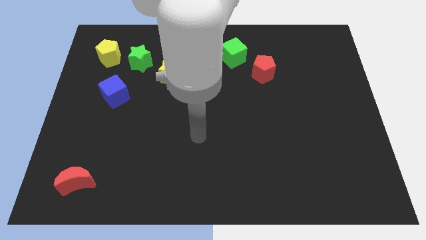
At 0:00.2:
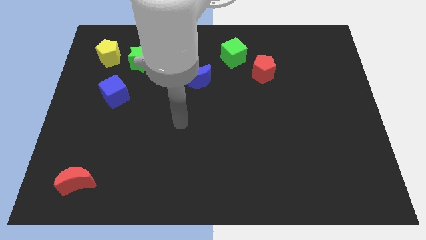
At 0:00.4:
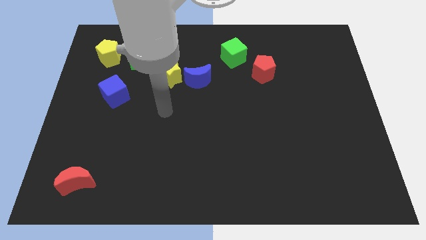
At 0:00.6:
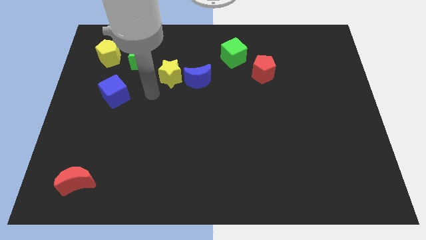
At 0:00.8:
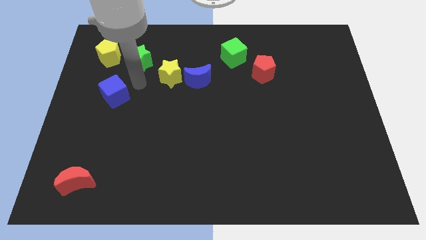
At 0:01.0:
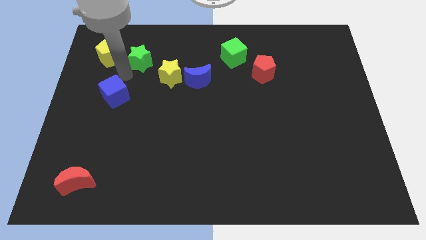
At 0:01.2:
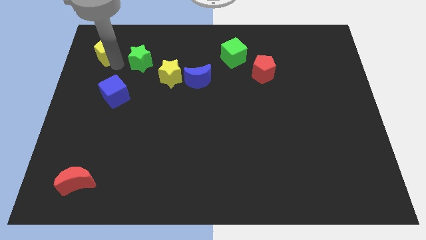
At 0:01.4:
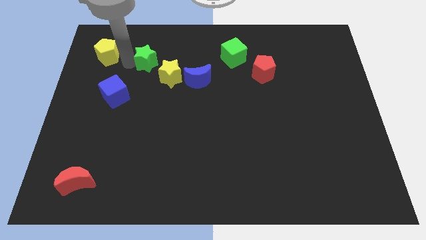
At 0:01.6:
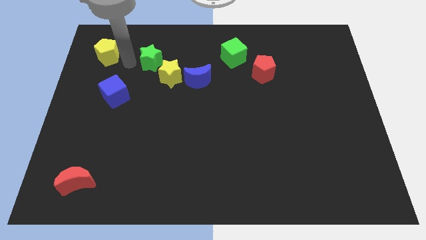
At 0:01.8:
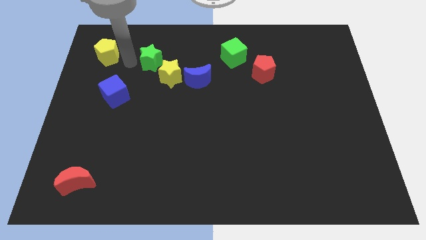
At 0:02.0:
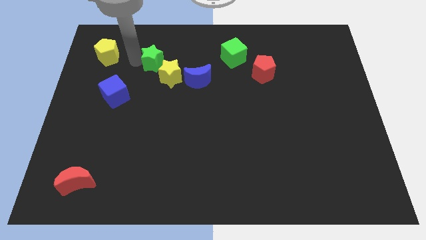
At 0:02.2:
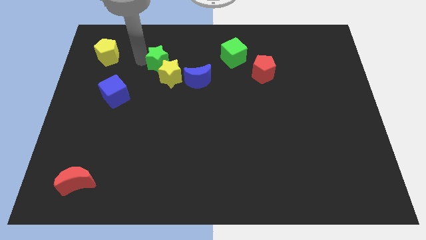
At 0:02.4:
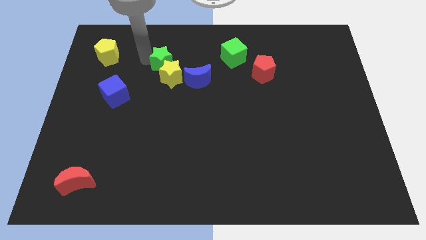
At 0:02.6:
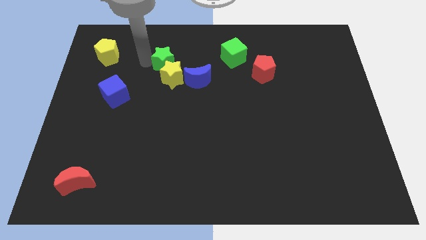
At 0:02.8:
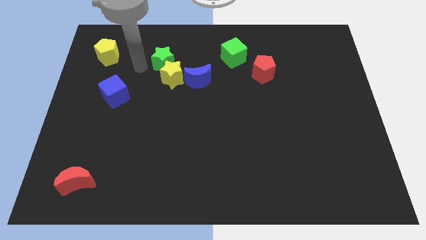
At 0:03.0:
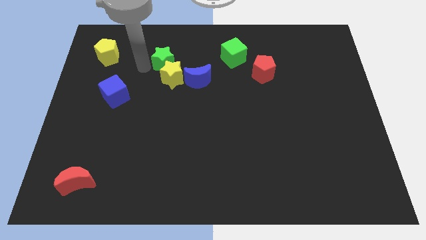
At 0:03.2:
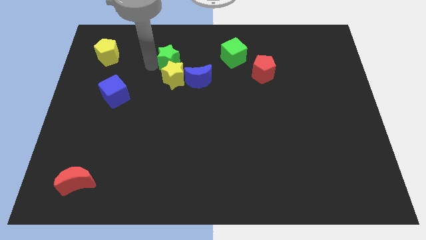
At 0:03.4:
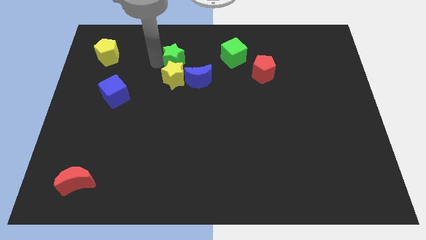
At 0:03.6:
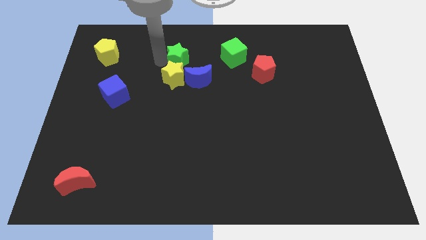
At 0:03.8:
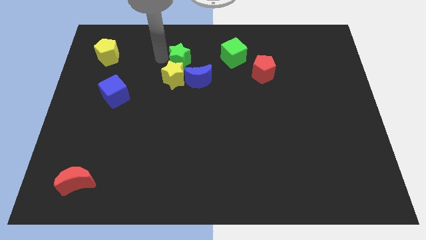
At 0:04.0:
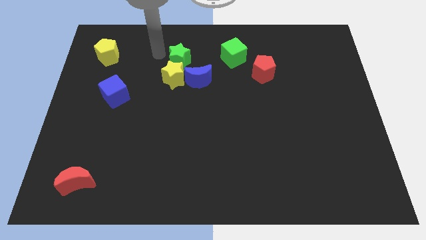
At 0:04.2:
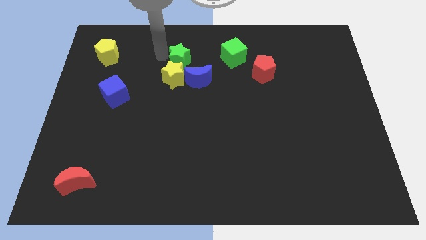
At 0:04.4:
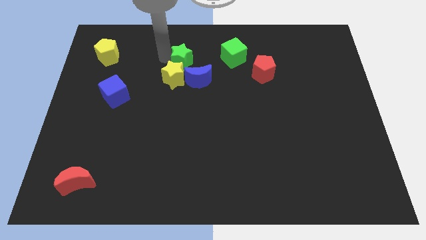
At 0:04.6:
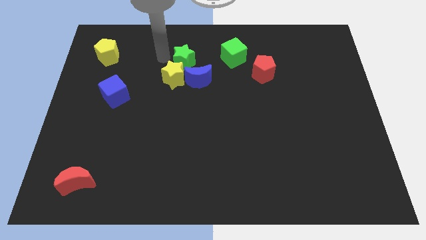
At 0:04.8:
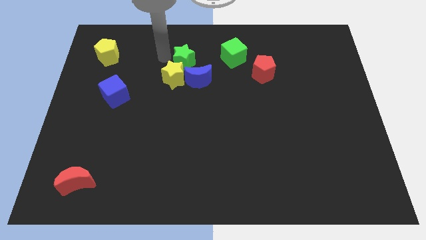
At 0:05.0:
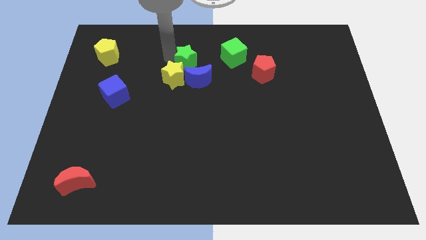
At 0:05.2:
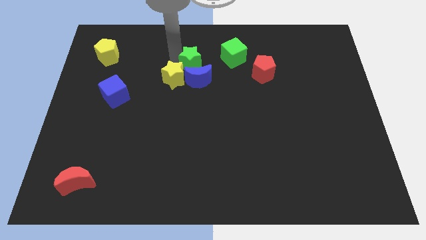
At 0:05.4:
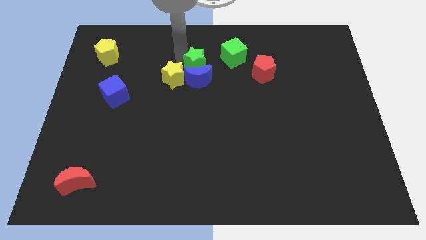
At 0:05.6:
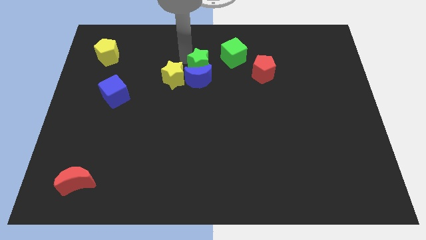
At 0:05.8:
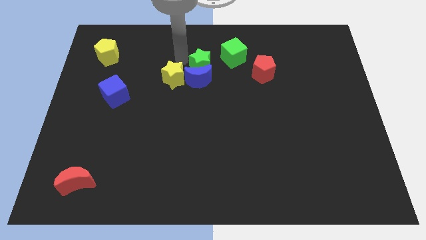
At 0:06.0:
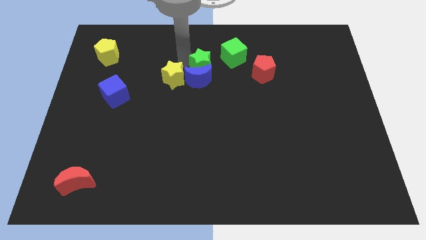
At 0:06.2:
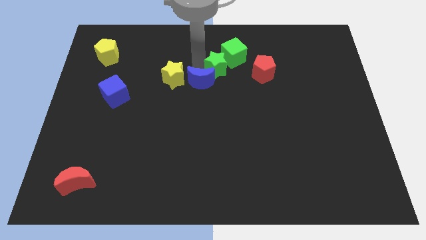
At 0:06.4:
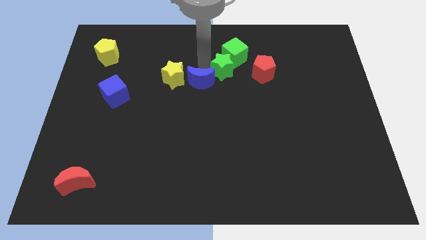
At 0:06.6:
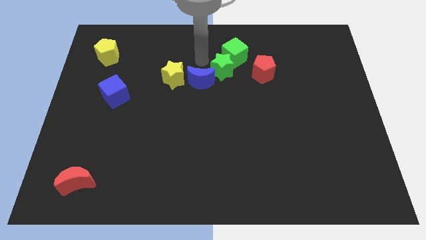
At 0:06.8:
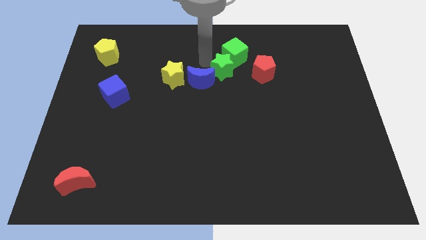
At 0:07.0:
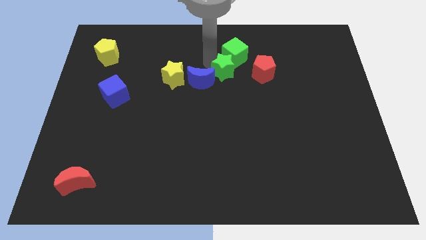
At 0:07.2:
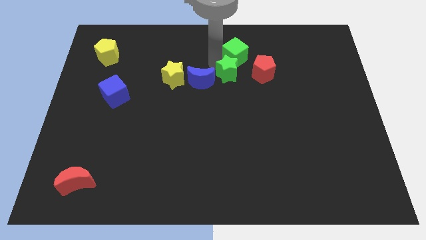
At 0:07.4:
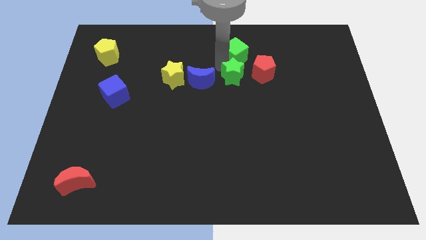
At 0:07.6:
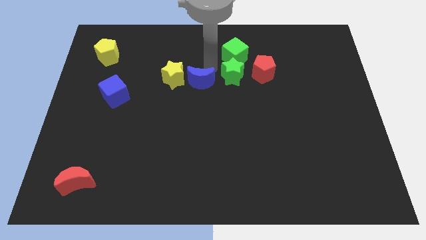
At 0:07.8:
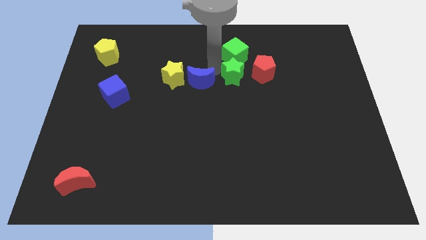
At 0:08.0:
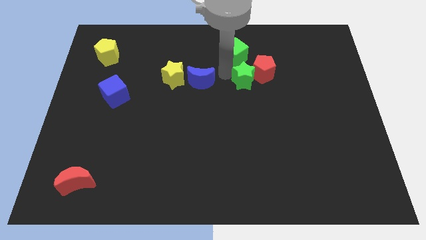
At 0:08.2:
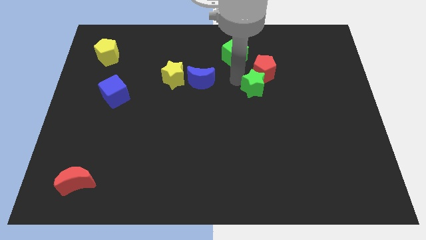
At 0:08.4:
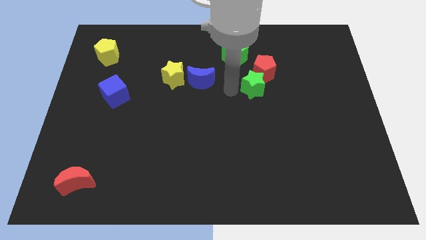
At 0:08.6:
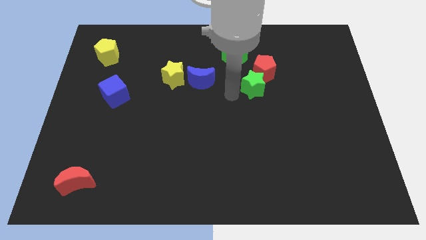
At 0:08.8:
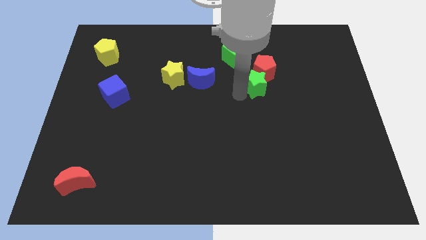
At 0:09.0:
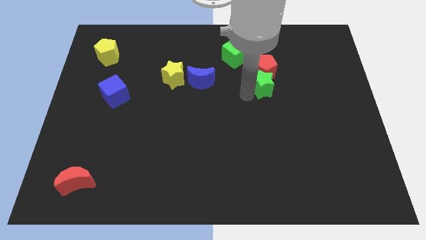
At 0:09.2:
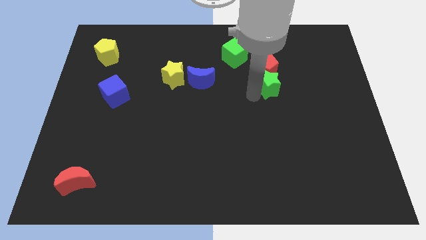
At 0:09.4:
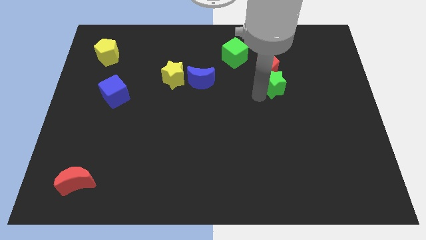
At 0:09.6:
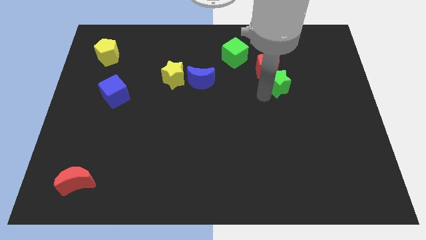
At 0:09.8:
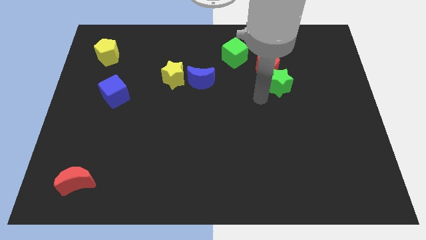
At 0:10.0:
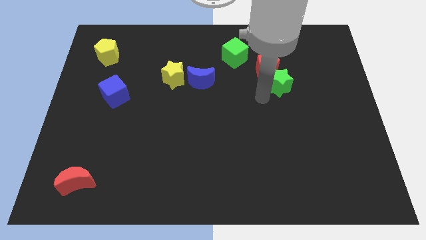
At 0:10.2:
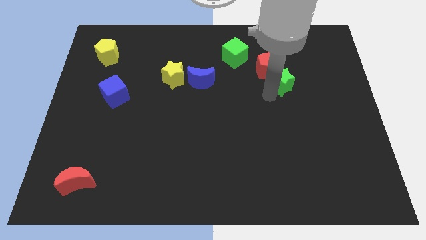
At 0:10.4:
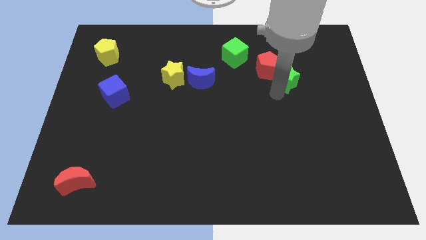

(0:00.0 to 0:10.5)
move the green star right of the red pentagon

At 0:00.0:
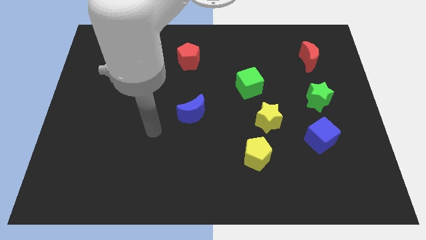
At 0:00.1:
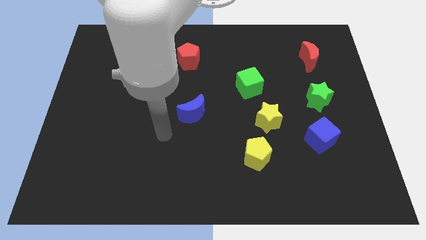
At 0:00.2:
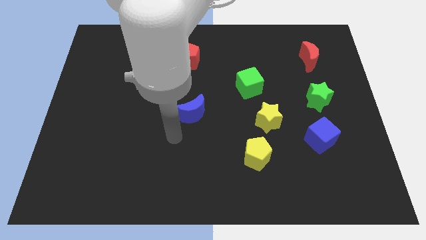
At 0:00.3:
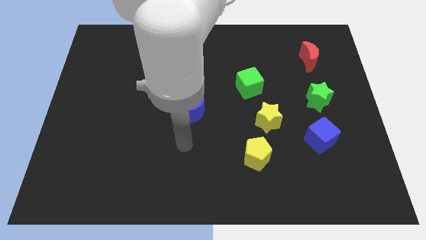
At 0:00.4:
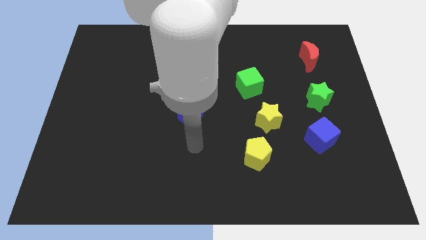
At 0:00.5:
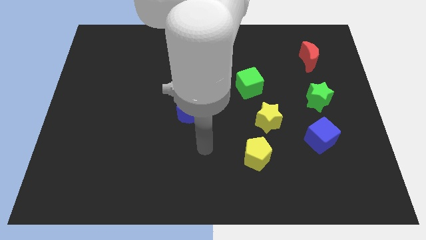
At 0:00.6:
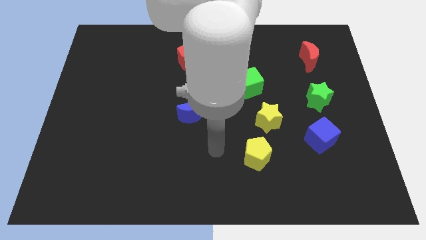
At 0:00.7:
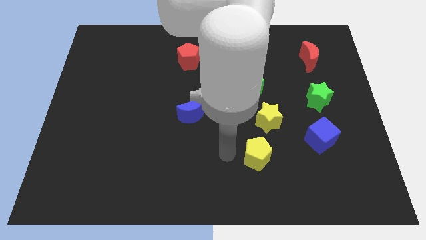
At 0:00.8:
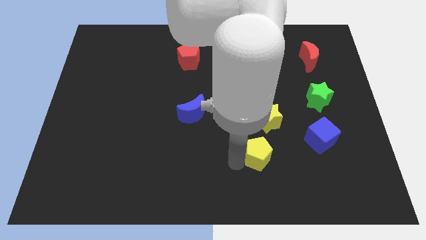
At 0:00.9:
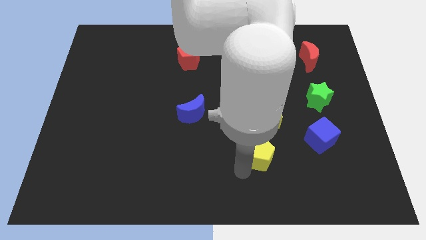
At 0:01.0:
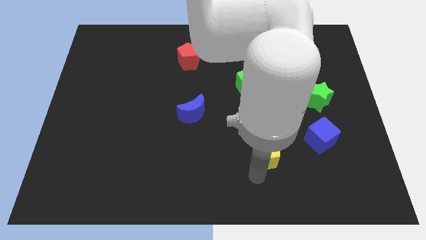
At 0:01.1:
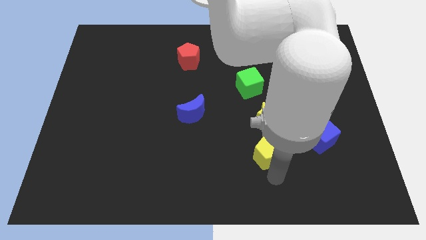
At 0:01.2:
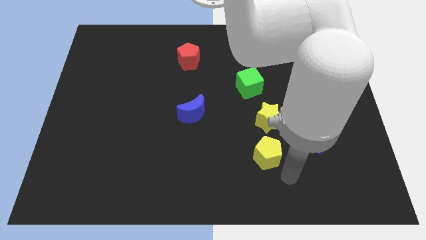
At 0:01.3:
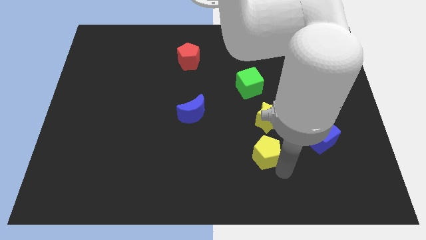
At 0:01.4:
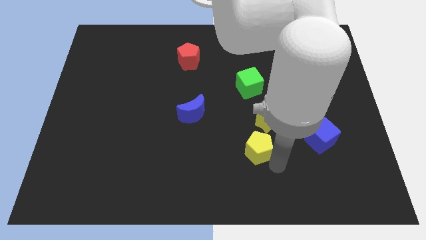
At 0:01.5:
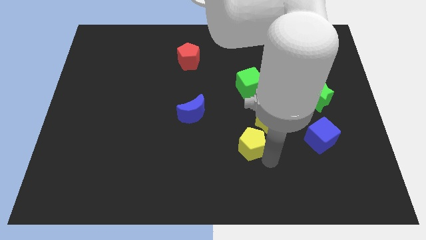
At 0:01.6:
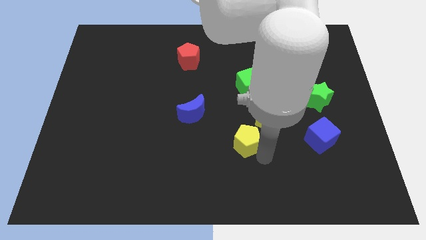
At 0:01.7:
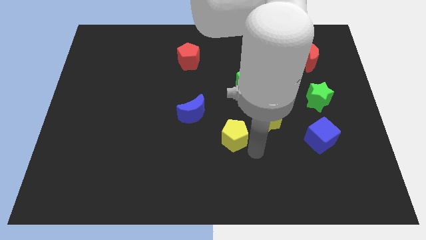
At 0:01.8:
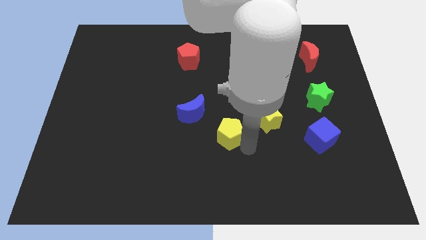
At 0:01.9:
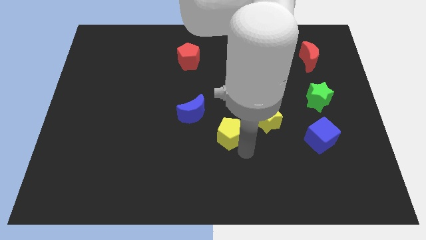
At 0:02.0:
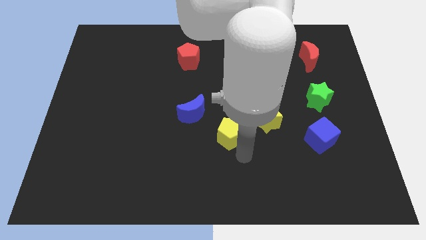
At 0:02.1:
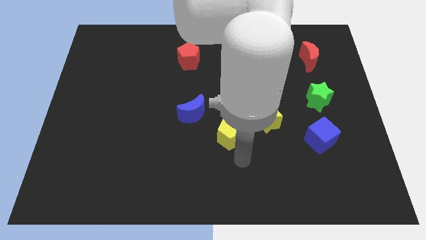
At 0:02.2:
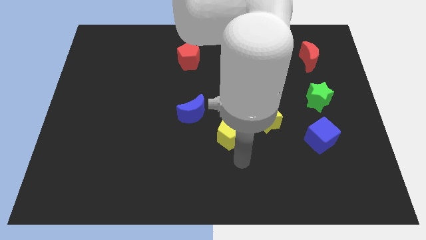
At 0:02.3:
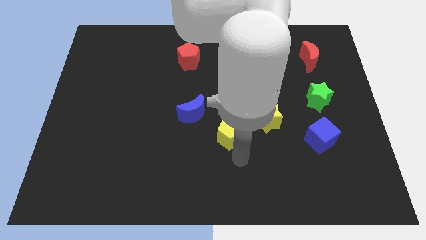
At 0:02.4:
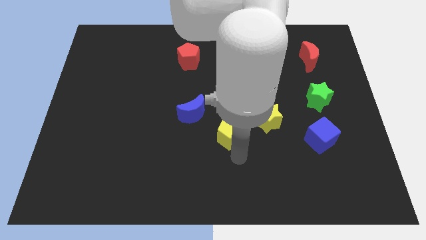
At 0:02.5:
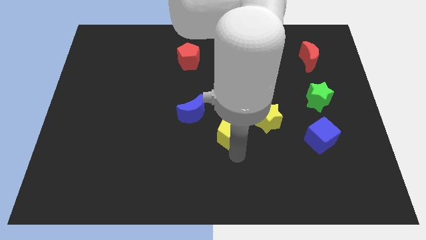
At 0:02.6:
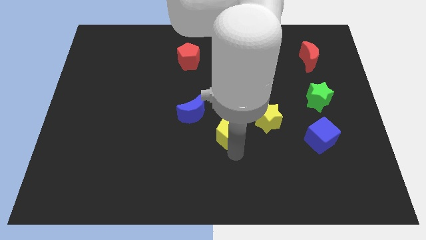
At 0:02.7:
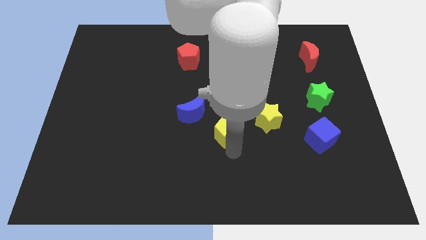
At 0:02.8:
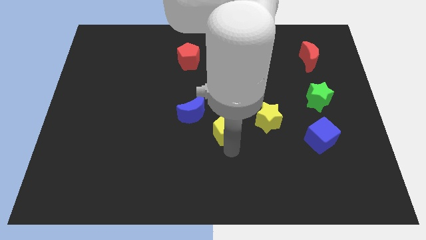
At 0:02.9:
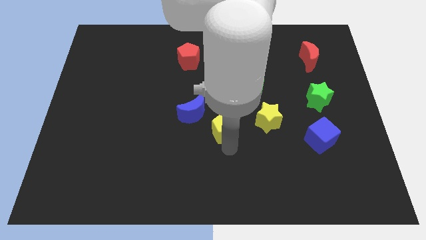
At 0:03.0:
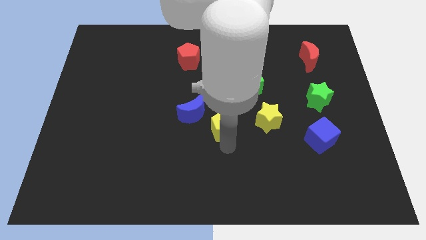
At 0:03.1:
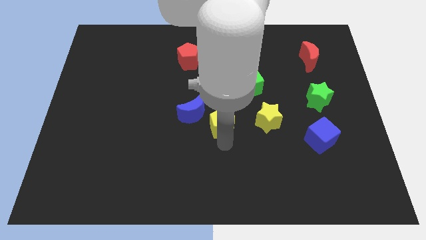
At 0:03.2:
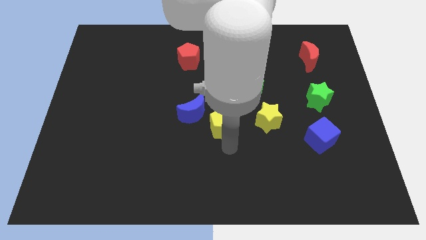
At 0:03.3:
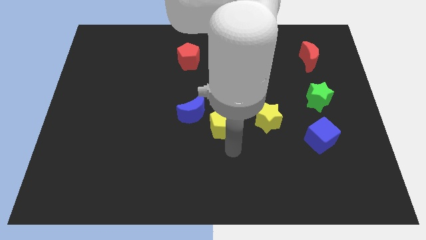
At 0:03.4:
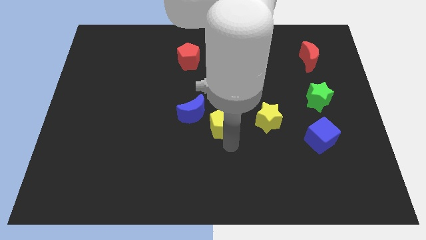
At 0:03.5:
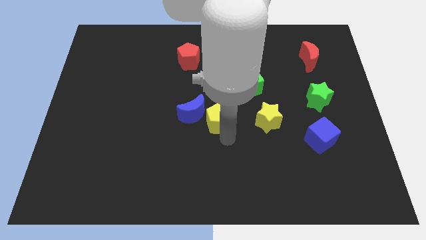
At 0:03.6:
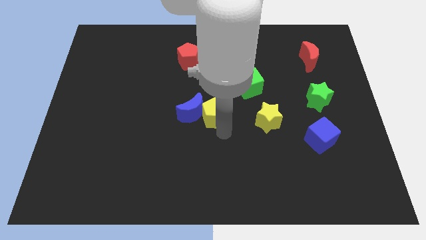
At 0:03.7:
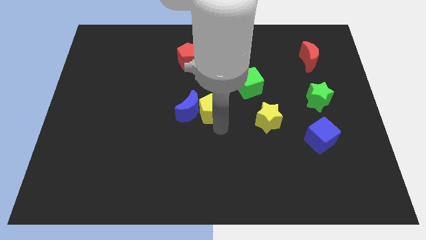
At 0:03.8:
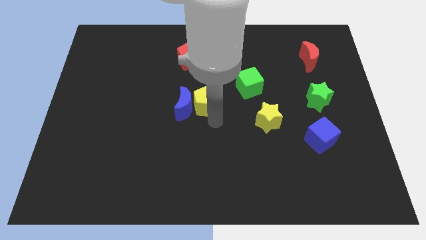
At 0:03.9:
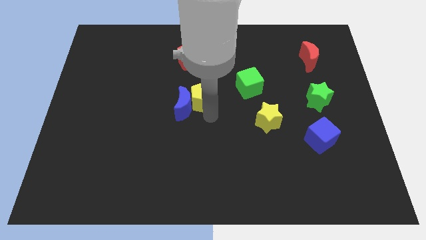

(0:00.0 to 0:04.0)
put the yellow pentagon left of the green cube
